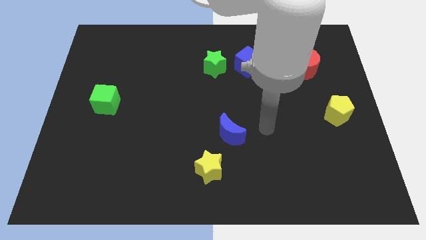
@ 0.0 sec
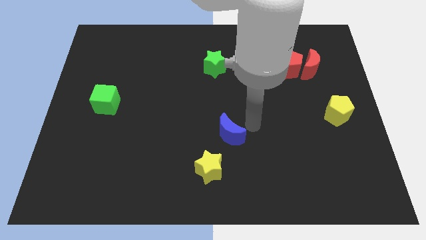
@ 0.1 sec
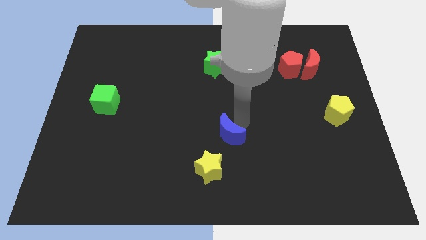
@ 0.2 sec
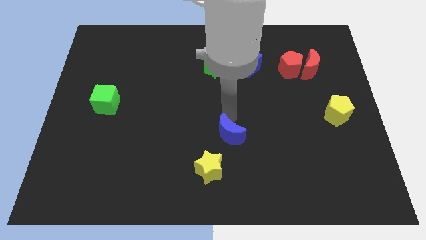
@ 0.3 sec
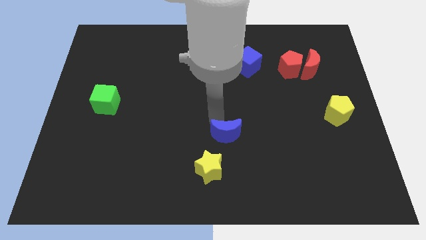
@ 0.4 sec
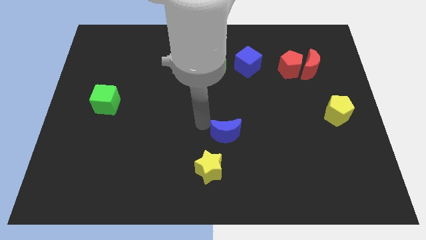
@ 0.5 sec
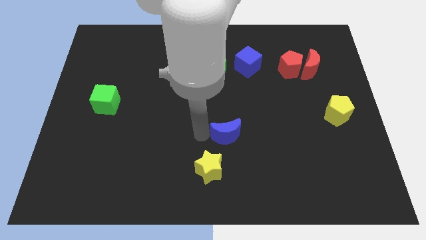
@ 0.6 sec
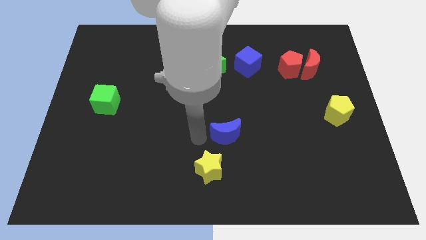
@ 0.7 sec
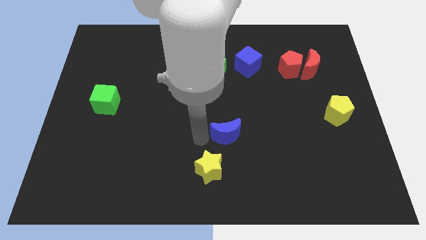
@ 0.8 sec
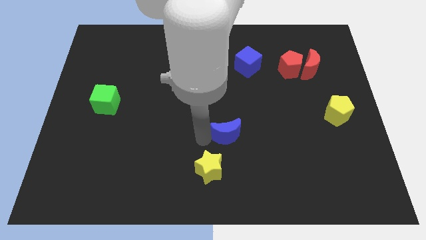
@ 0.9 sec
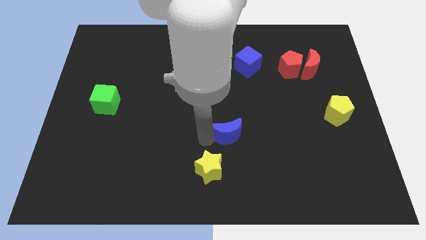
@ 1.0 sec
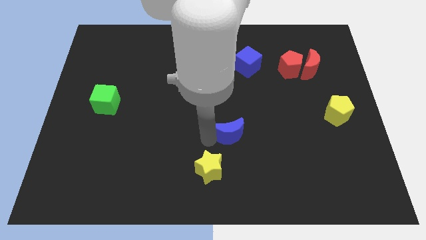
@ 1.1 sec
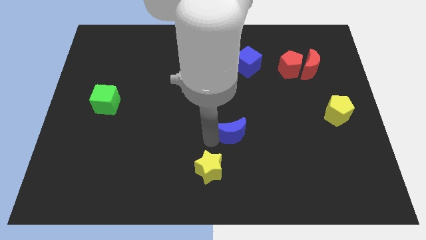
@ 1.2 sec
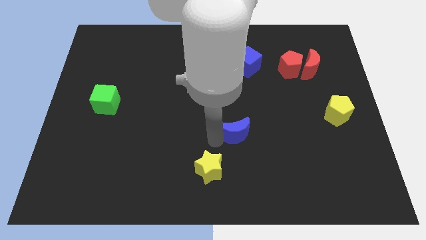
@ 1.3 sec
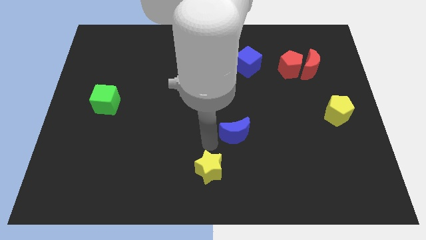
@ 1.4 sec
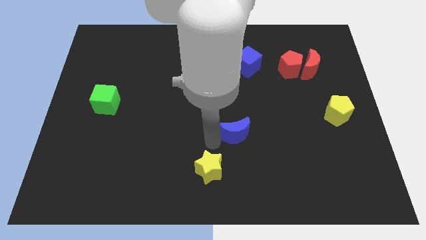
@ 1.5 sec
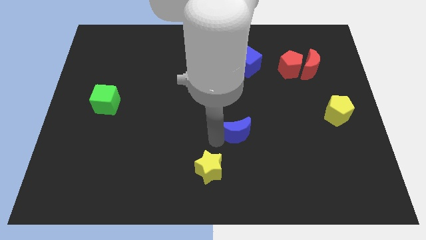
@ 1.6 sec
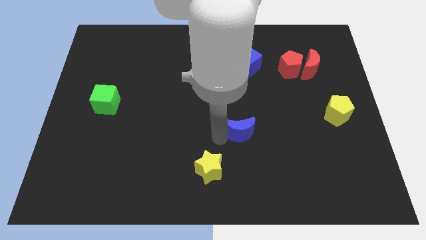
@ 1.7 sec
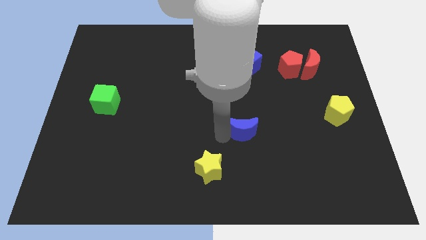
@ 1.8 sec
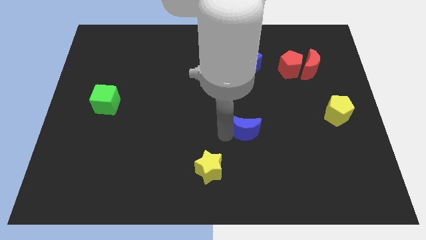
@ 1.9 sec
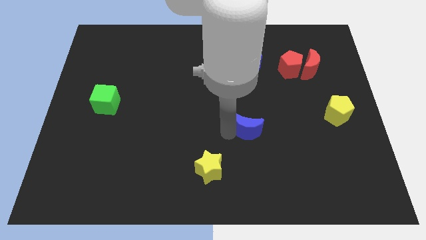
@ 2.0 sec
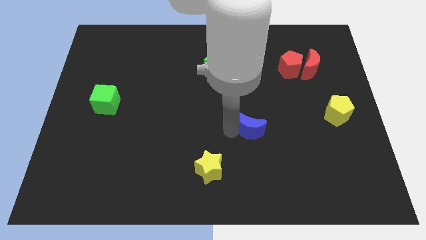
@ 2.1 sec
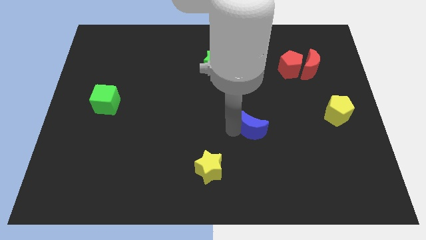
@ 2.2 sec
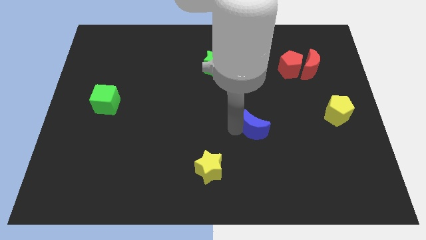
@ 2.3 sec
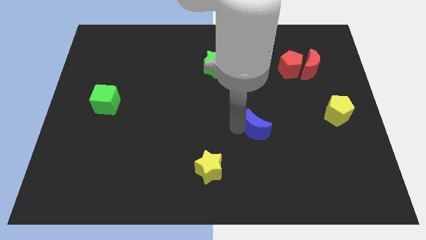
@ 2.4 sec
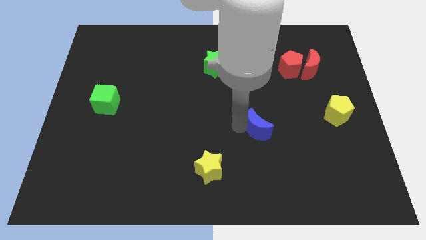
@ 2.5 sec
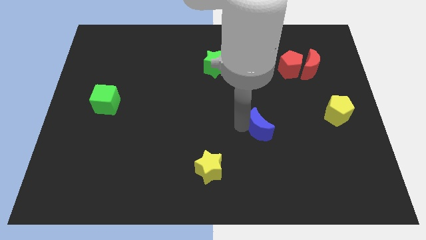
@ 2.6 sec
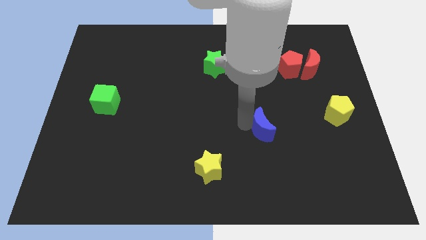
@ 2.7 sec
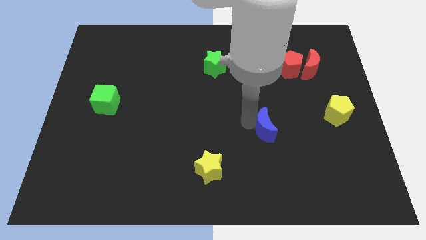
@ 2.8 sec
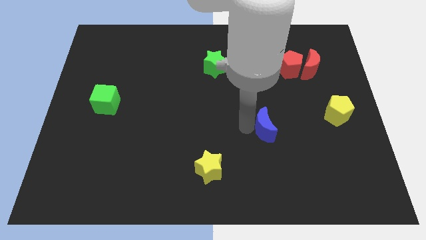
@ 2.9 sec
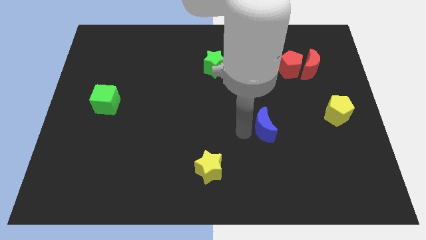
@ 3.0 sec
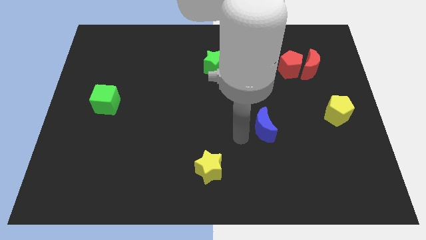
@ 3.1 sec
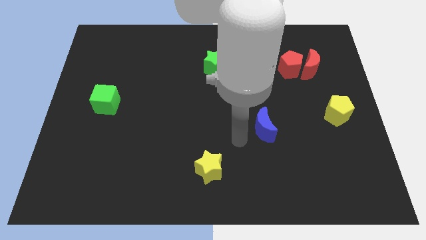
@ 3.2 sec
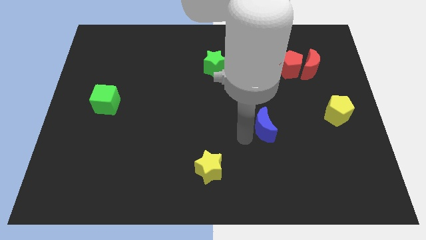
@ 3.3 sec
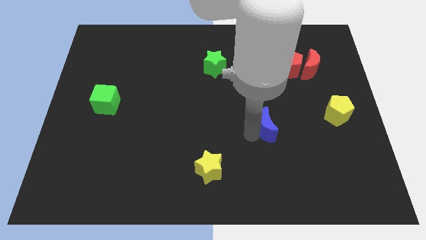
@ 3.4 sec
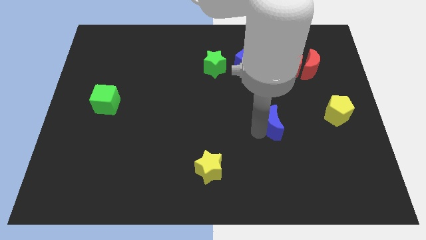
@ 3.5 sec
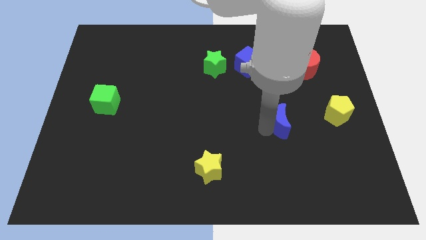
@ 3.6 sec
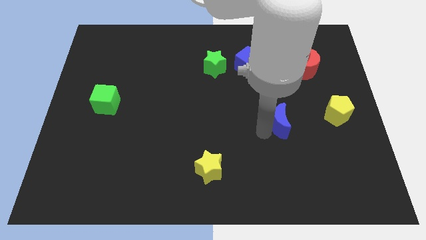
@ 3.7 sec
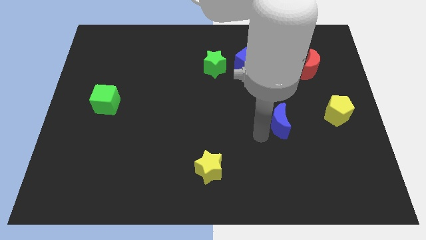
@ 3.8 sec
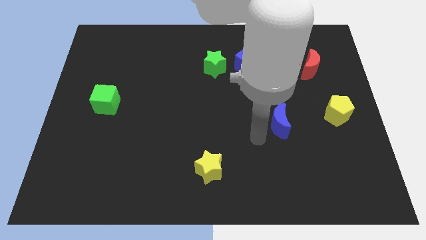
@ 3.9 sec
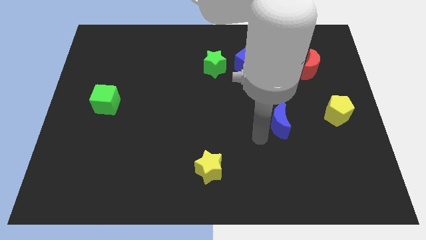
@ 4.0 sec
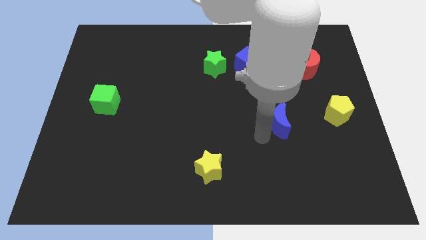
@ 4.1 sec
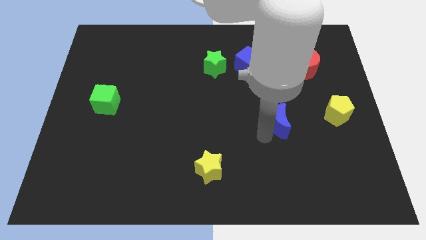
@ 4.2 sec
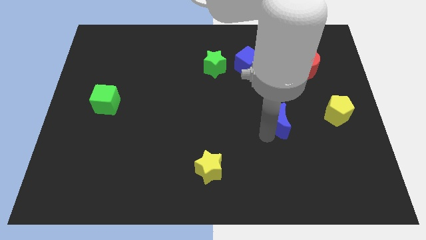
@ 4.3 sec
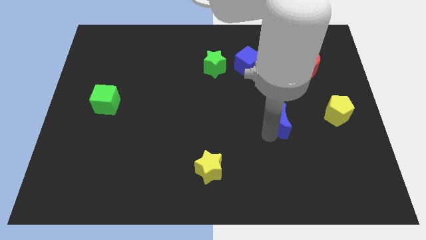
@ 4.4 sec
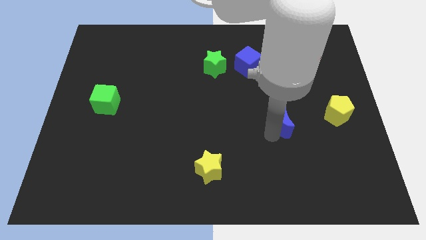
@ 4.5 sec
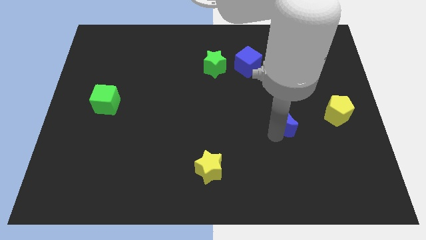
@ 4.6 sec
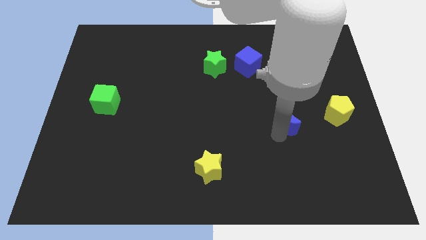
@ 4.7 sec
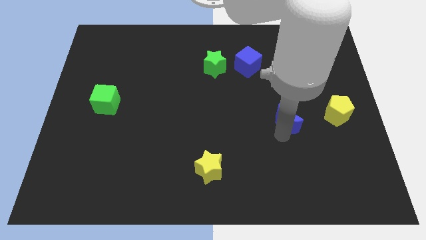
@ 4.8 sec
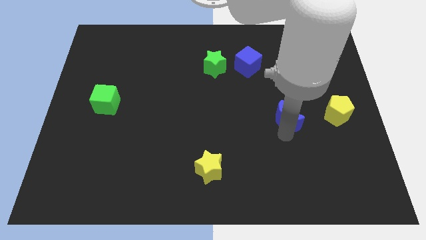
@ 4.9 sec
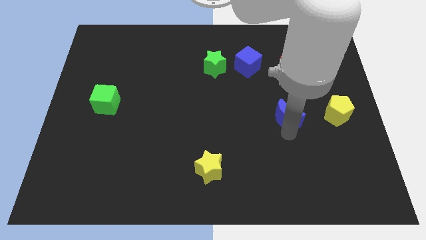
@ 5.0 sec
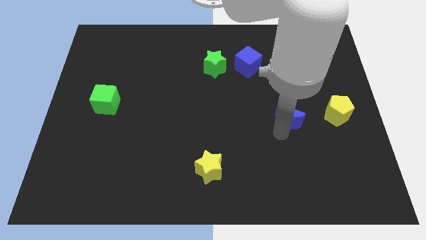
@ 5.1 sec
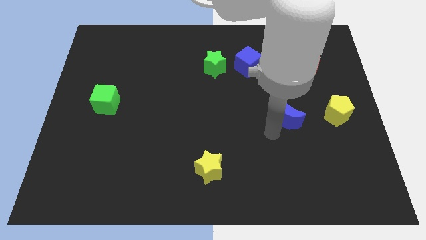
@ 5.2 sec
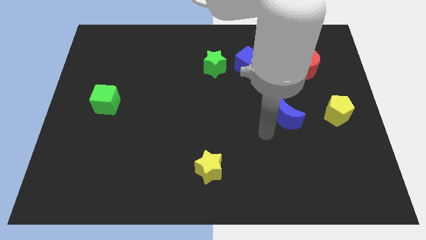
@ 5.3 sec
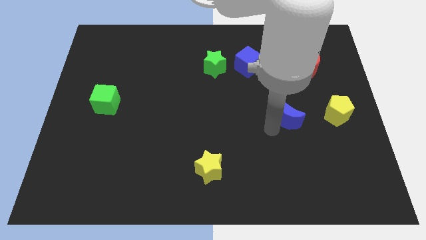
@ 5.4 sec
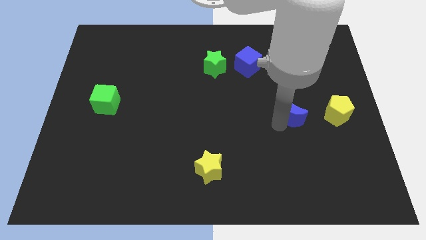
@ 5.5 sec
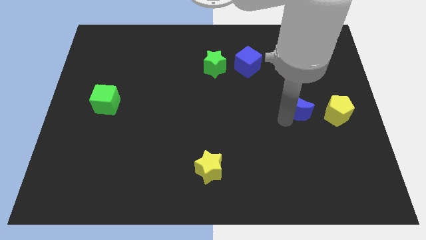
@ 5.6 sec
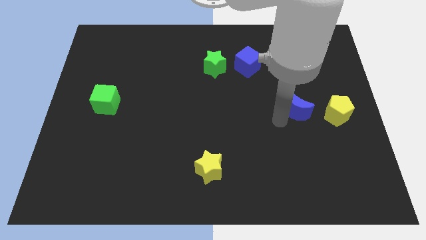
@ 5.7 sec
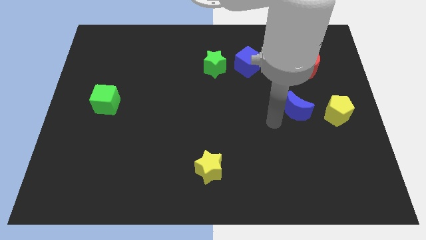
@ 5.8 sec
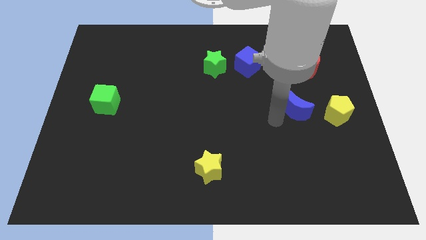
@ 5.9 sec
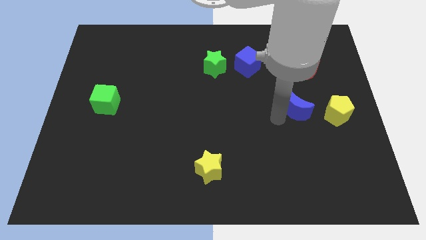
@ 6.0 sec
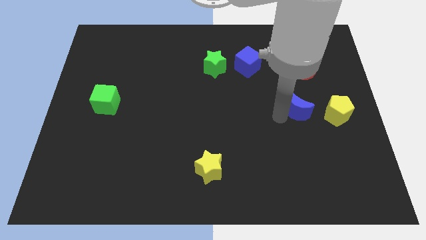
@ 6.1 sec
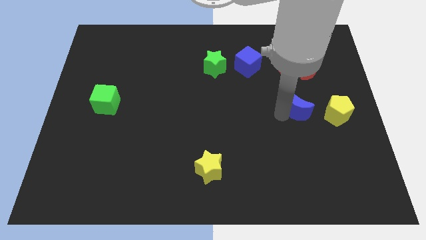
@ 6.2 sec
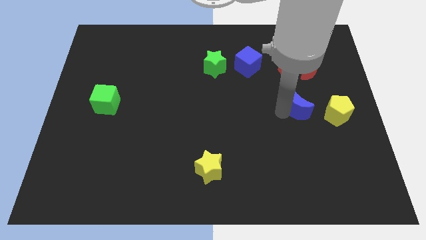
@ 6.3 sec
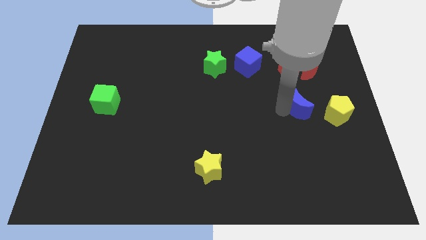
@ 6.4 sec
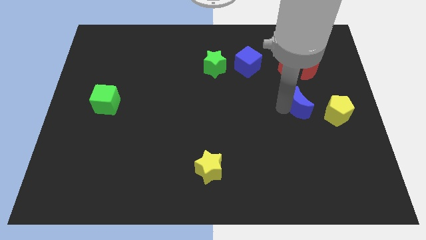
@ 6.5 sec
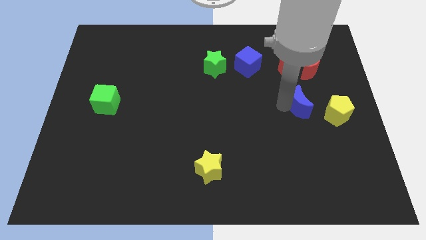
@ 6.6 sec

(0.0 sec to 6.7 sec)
move the blue moon to the bottom of the red moon

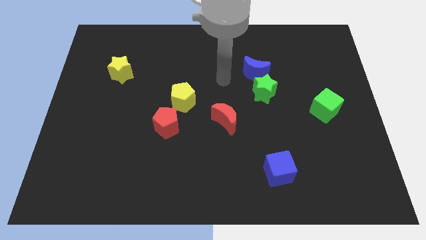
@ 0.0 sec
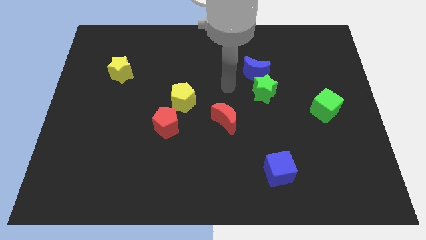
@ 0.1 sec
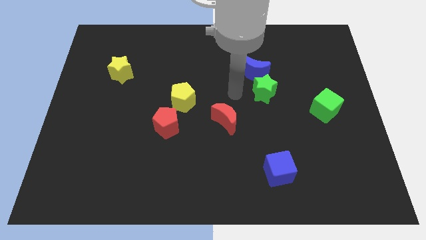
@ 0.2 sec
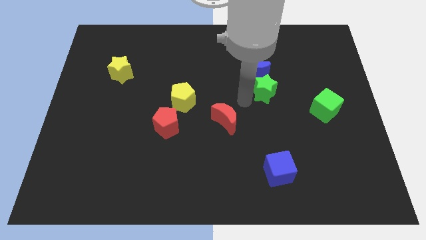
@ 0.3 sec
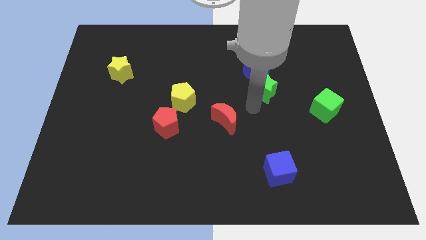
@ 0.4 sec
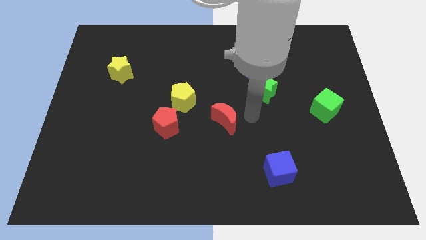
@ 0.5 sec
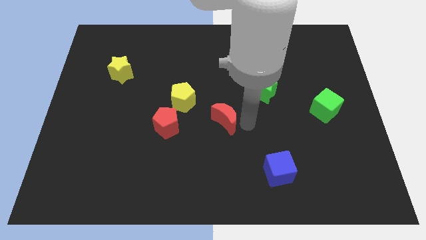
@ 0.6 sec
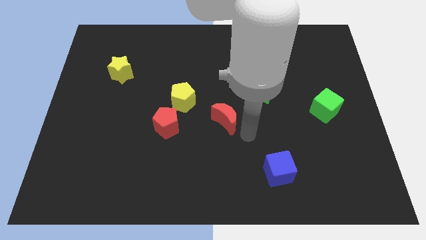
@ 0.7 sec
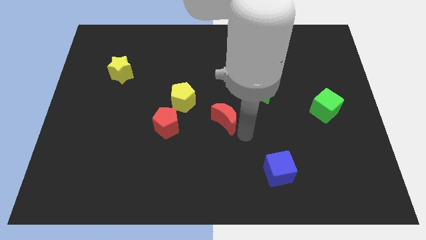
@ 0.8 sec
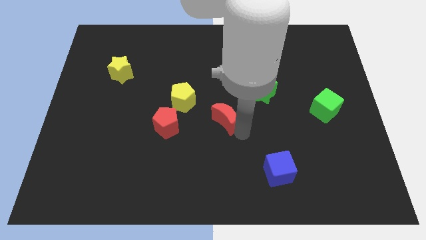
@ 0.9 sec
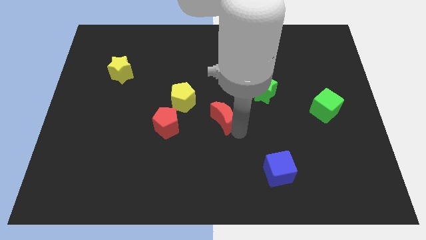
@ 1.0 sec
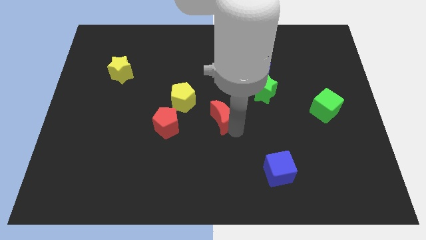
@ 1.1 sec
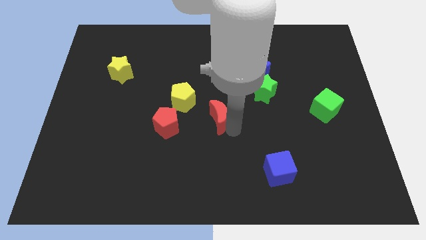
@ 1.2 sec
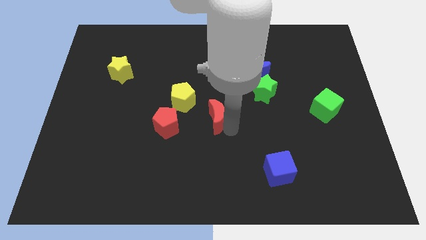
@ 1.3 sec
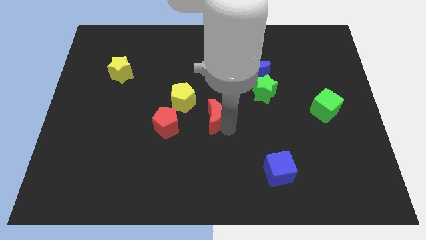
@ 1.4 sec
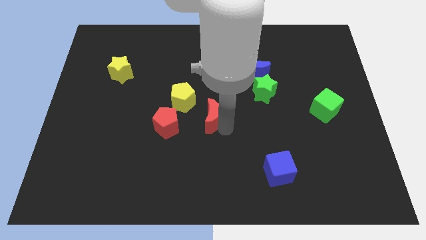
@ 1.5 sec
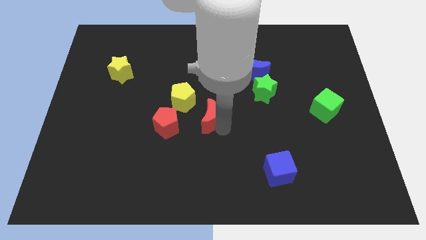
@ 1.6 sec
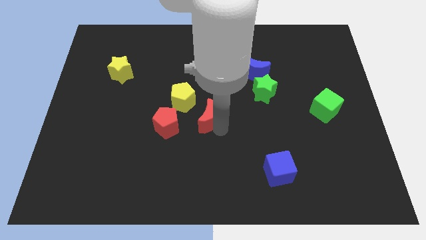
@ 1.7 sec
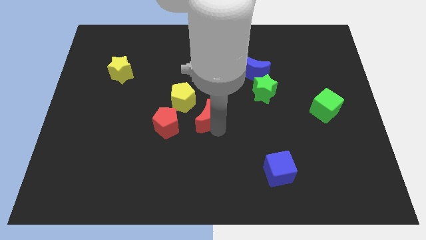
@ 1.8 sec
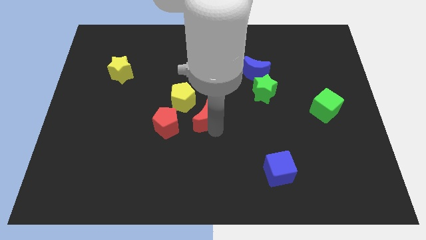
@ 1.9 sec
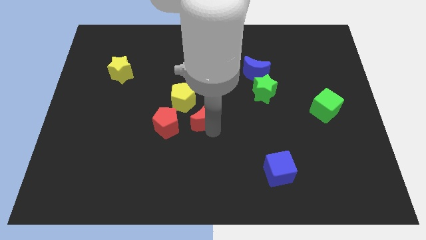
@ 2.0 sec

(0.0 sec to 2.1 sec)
slide the red moon to the top right side of the red pentagon
